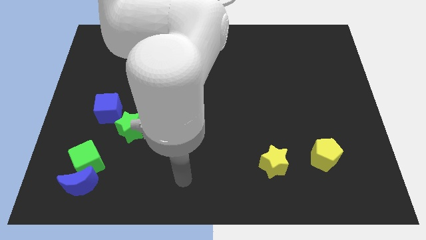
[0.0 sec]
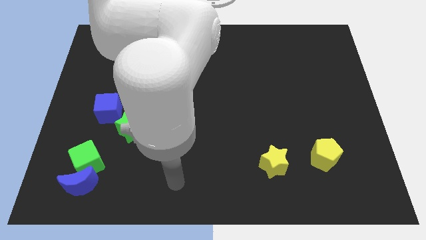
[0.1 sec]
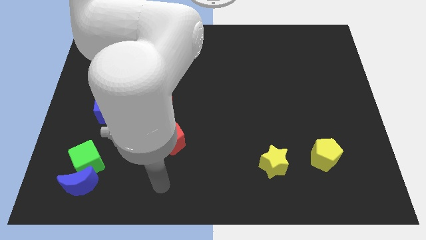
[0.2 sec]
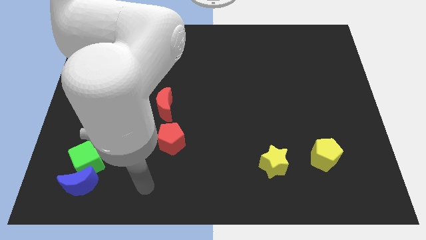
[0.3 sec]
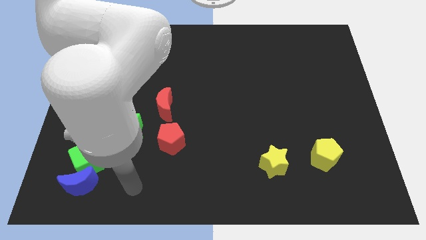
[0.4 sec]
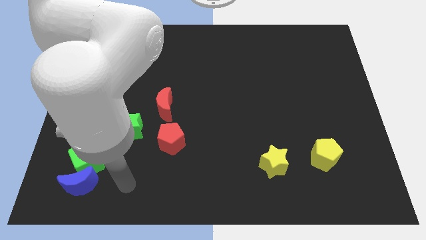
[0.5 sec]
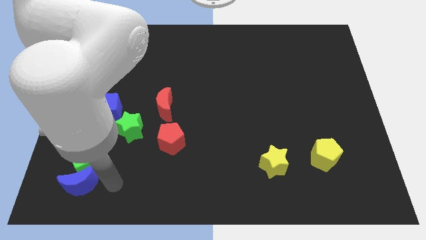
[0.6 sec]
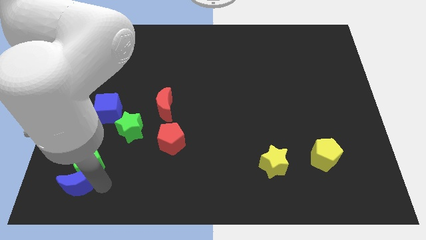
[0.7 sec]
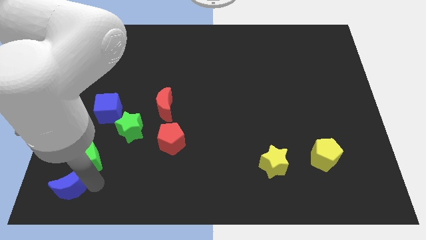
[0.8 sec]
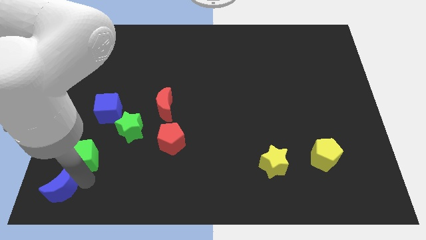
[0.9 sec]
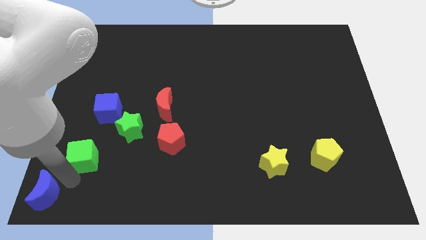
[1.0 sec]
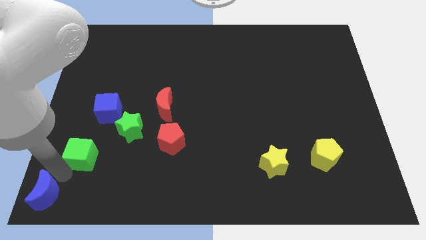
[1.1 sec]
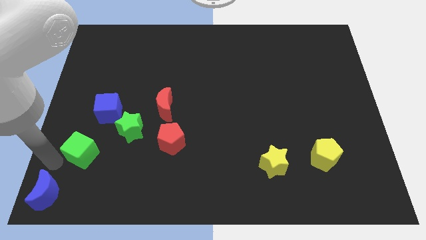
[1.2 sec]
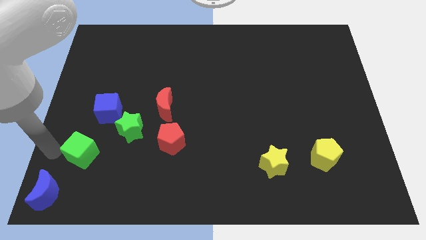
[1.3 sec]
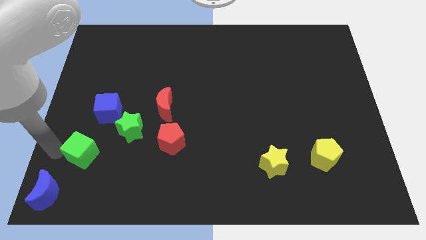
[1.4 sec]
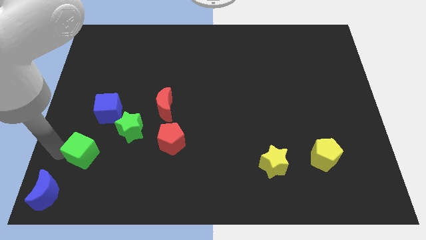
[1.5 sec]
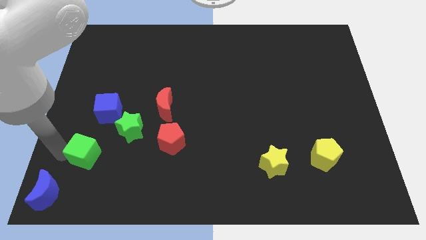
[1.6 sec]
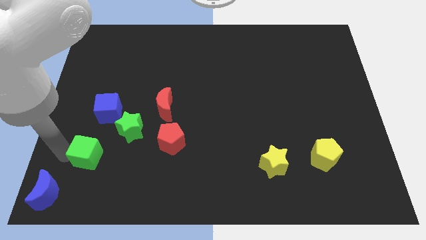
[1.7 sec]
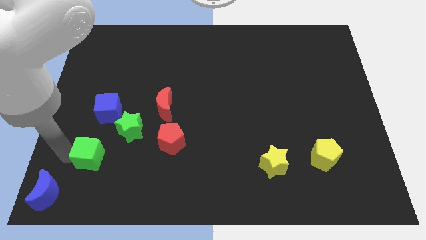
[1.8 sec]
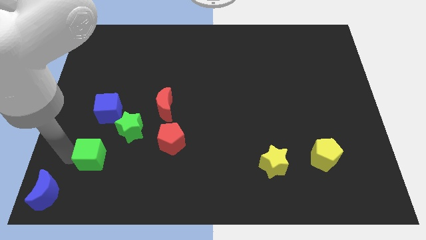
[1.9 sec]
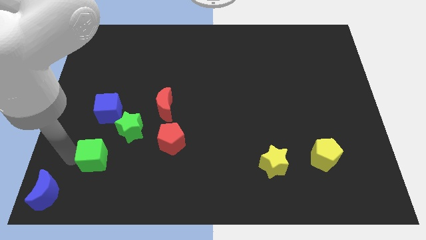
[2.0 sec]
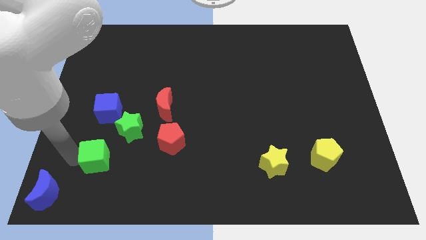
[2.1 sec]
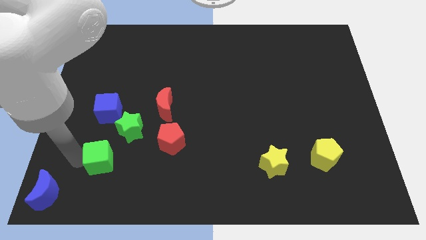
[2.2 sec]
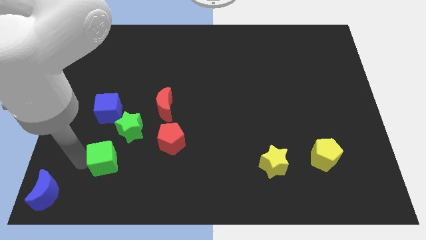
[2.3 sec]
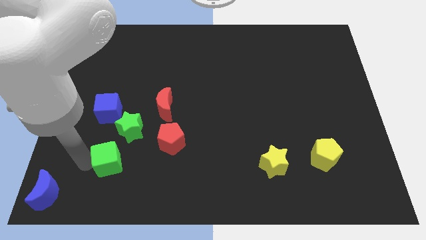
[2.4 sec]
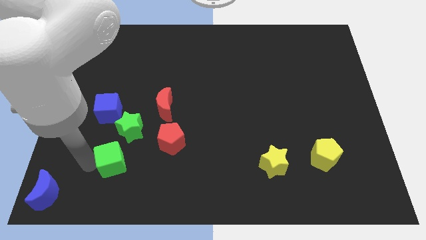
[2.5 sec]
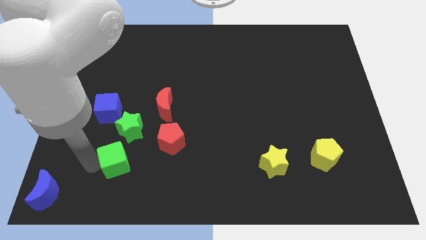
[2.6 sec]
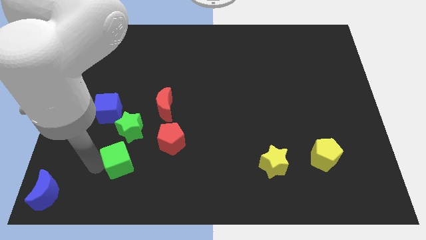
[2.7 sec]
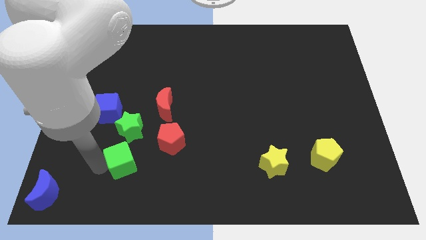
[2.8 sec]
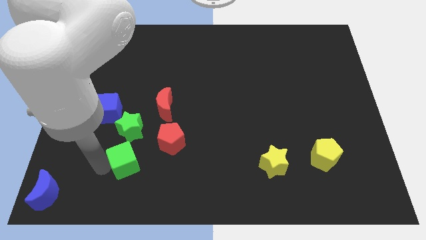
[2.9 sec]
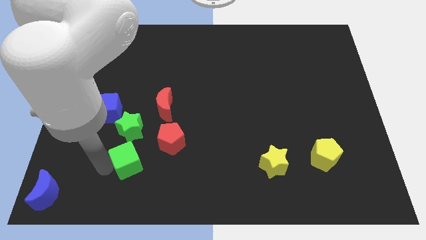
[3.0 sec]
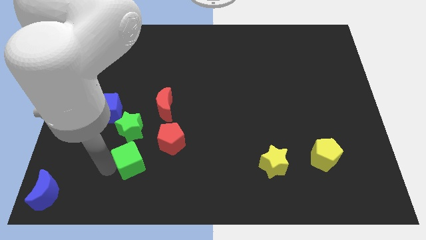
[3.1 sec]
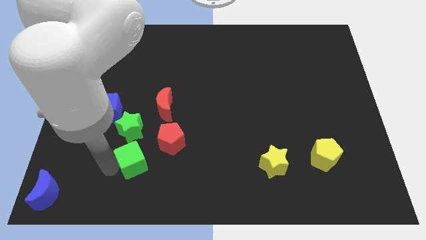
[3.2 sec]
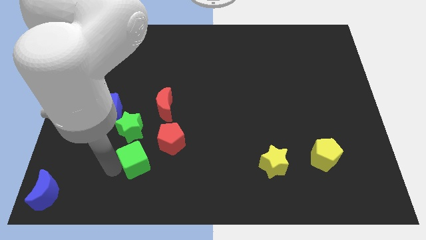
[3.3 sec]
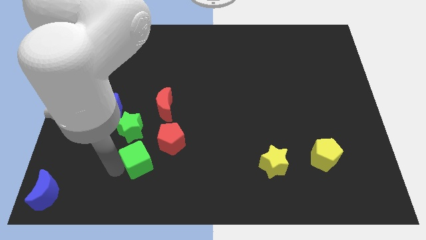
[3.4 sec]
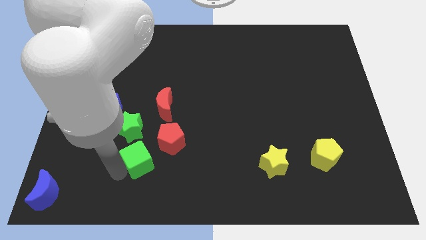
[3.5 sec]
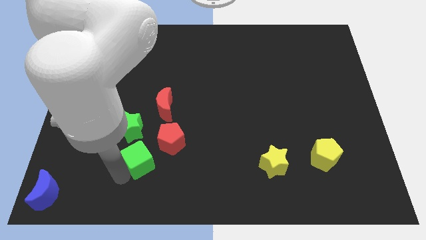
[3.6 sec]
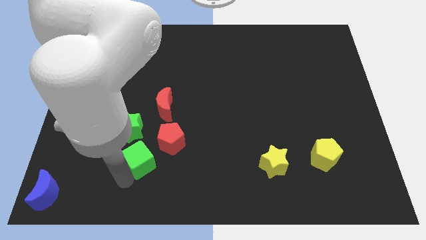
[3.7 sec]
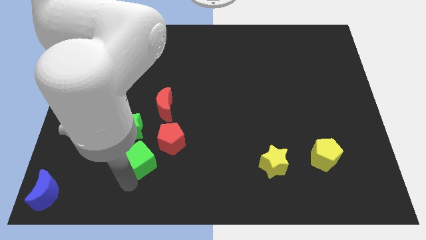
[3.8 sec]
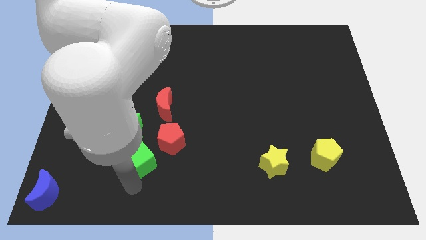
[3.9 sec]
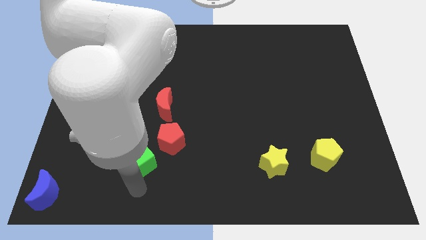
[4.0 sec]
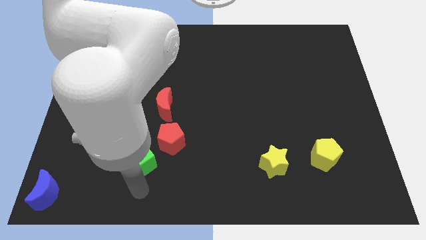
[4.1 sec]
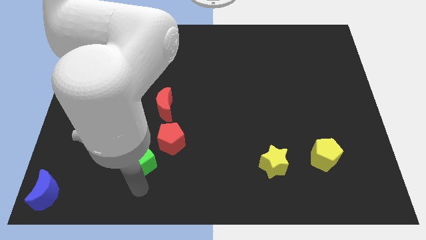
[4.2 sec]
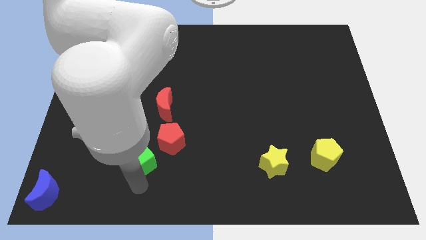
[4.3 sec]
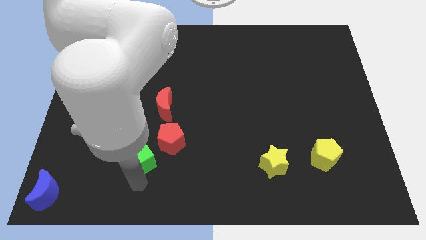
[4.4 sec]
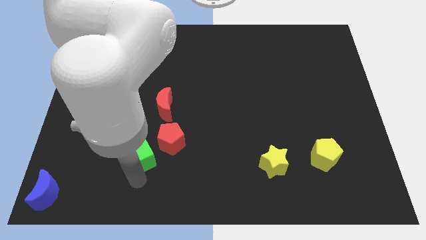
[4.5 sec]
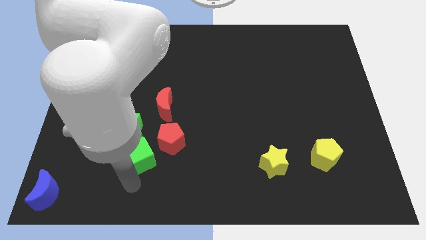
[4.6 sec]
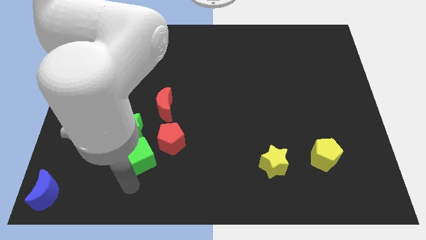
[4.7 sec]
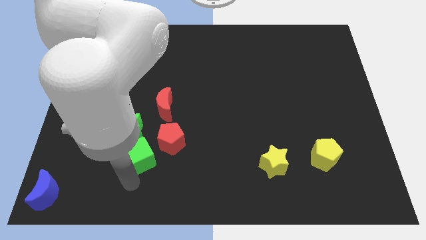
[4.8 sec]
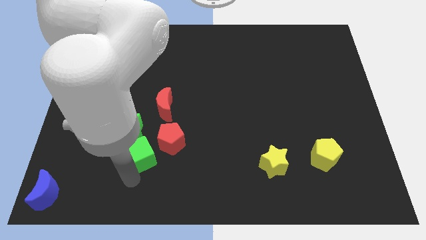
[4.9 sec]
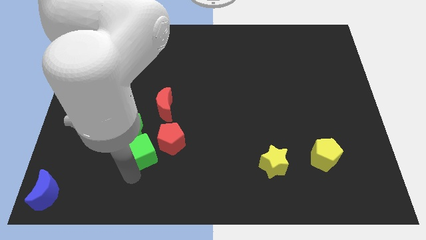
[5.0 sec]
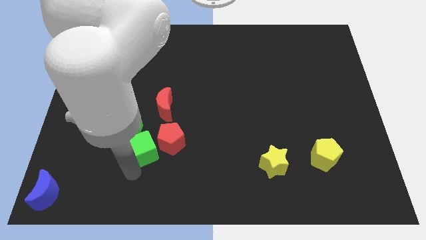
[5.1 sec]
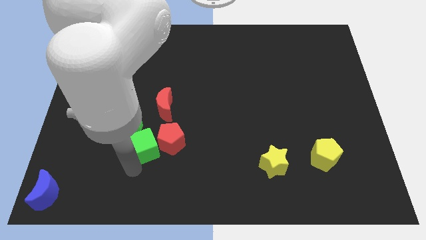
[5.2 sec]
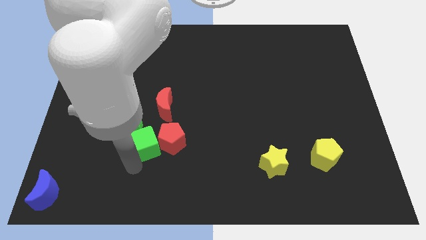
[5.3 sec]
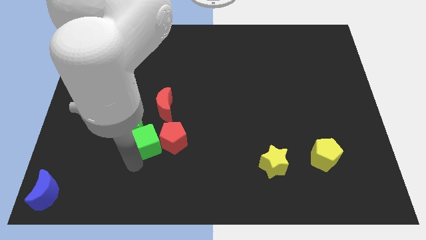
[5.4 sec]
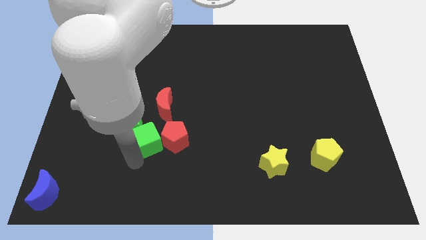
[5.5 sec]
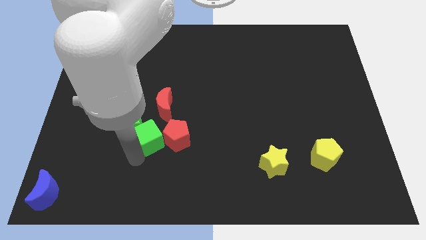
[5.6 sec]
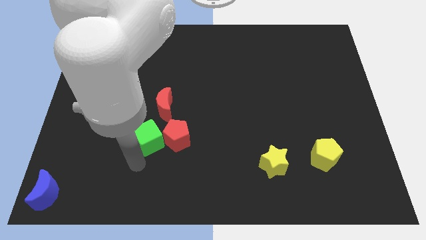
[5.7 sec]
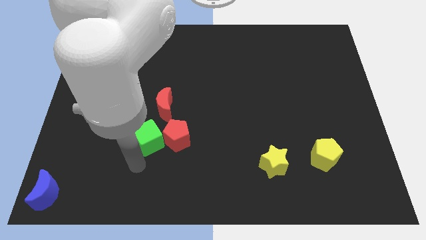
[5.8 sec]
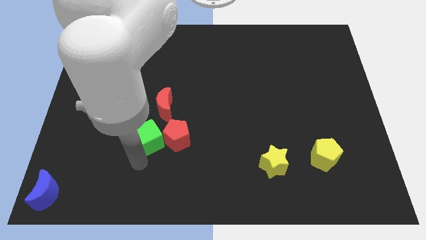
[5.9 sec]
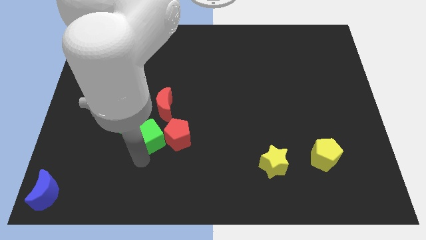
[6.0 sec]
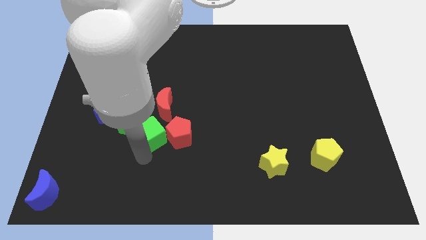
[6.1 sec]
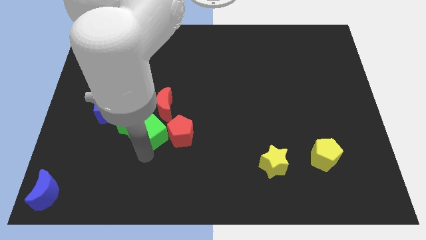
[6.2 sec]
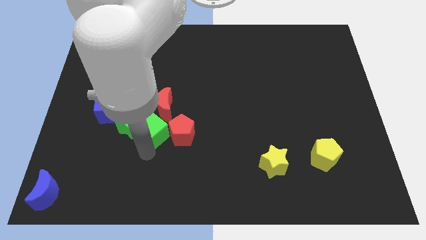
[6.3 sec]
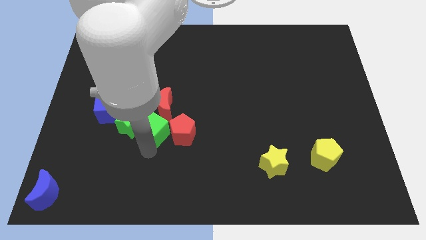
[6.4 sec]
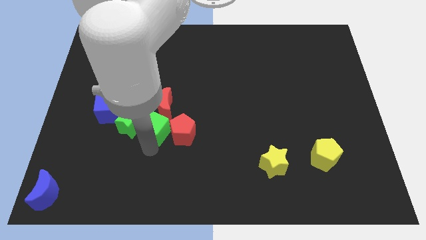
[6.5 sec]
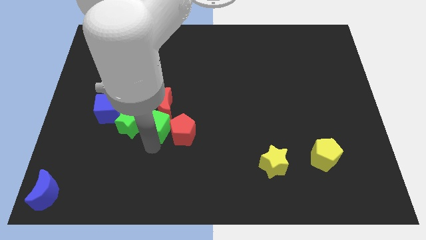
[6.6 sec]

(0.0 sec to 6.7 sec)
move the green cube close to the red moon
